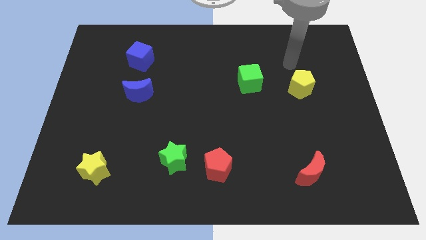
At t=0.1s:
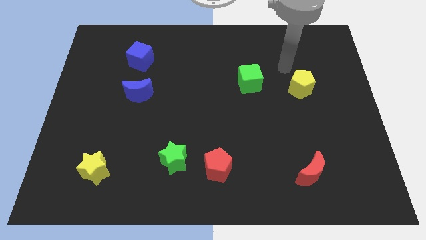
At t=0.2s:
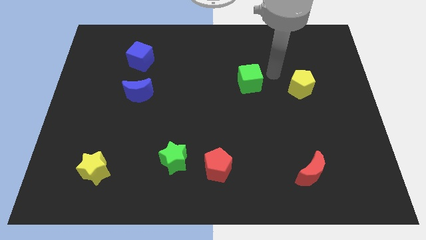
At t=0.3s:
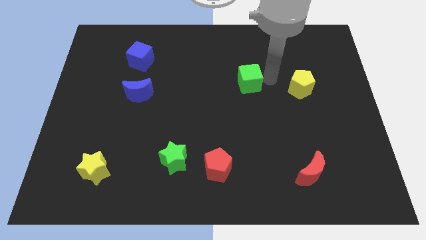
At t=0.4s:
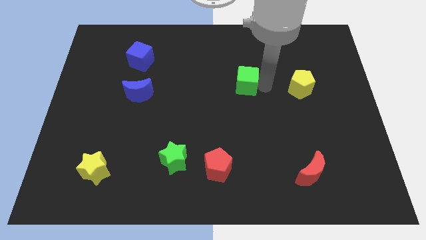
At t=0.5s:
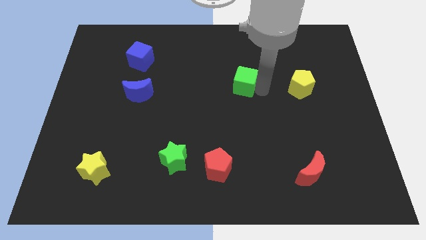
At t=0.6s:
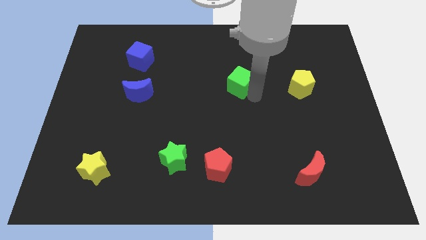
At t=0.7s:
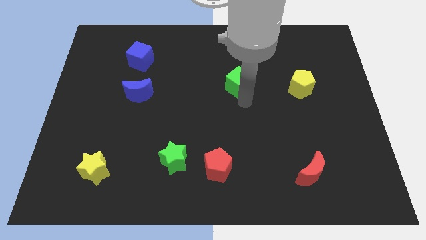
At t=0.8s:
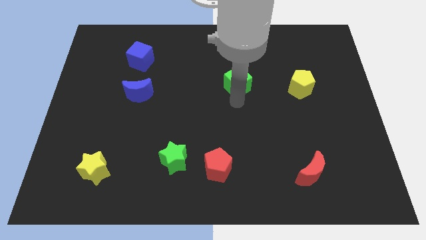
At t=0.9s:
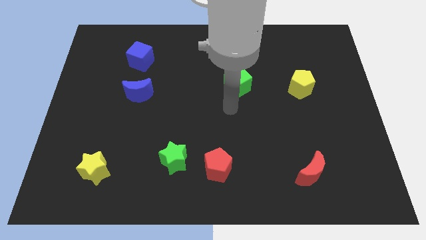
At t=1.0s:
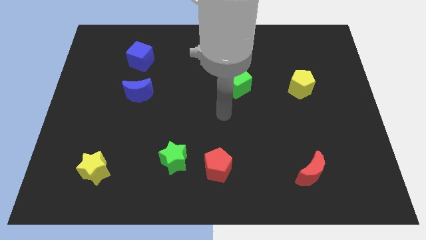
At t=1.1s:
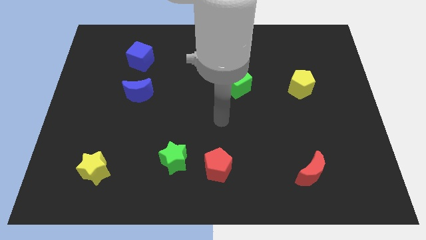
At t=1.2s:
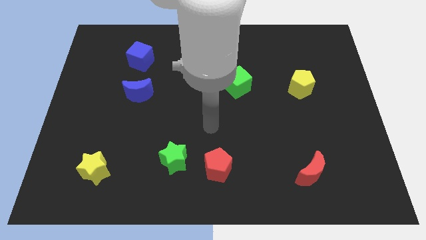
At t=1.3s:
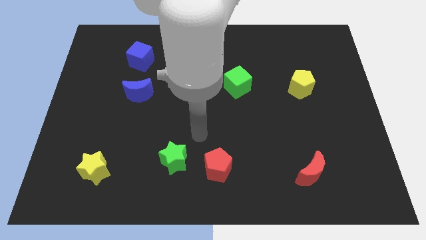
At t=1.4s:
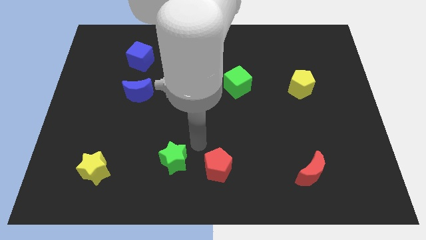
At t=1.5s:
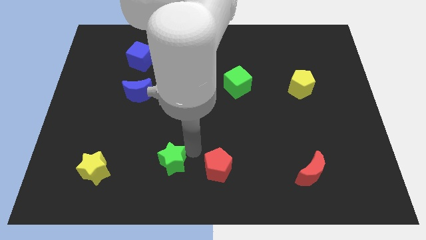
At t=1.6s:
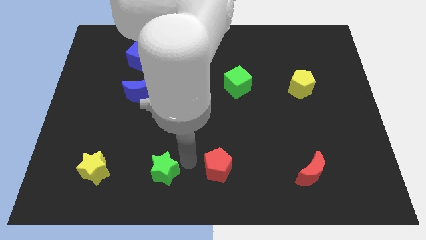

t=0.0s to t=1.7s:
separate the red pentagon from the green star

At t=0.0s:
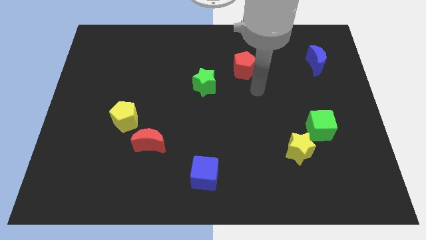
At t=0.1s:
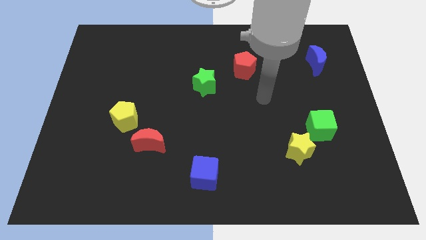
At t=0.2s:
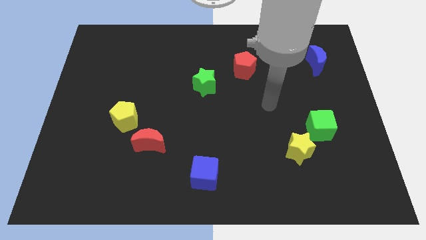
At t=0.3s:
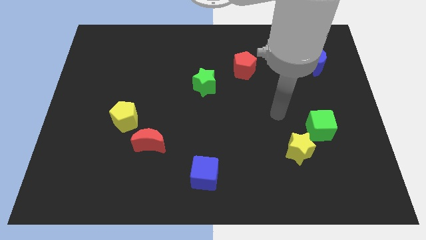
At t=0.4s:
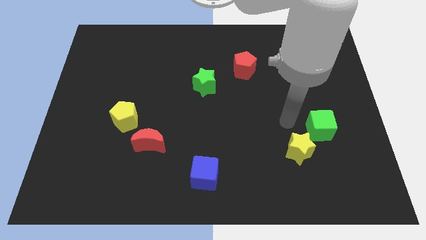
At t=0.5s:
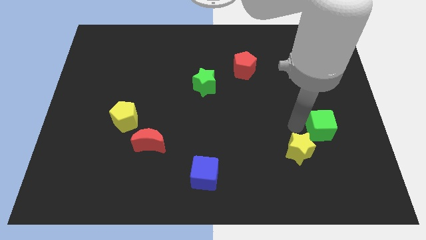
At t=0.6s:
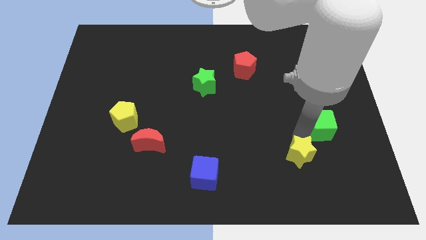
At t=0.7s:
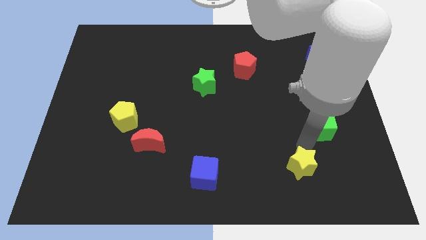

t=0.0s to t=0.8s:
separate the green cube from the yellow star

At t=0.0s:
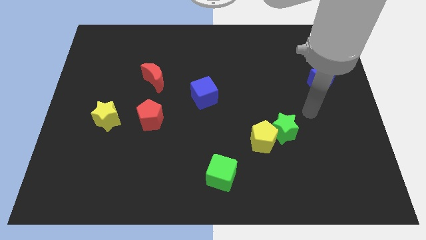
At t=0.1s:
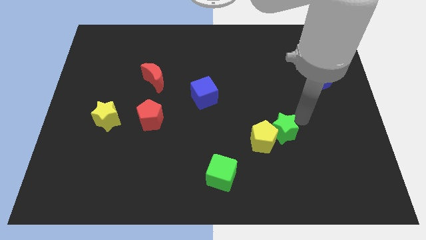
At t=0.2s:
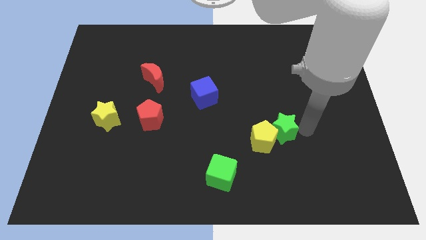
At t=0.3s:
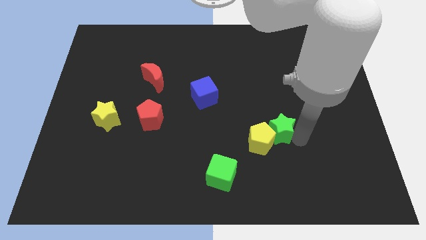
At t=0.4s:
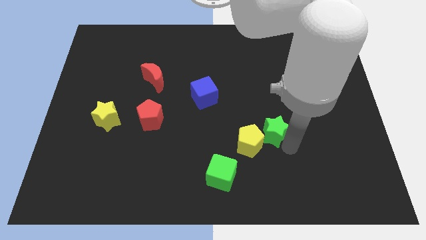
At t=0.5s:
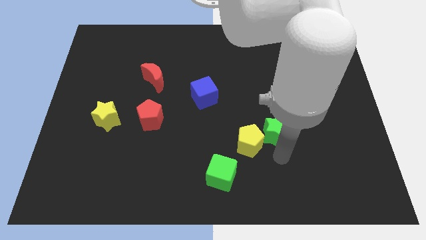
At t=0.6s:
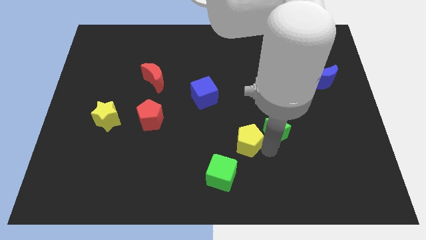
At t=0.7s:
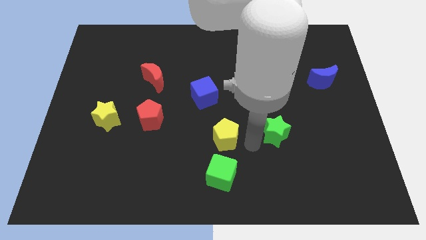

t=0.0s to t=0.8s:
pull the green star apart from the yellow pentagon

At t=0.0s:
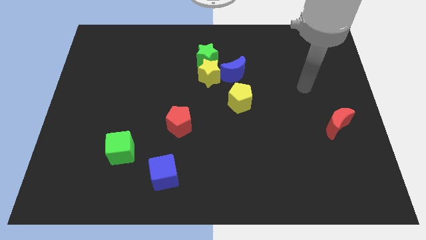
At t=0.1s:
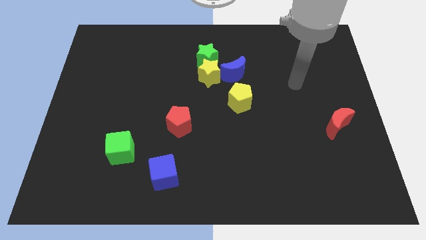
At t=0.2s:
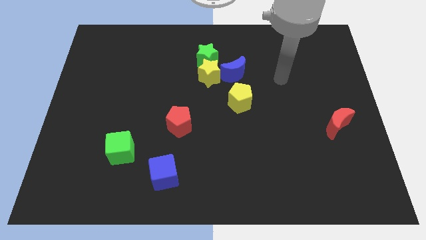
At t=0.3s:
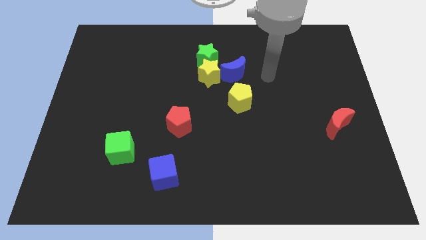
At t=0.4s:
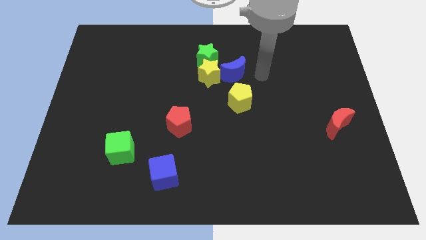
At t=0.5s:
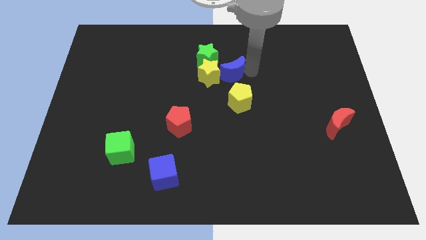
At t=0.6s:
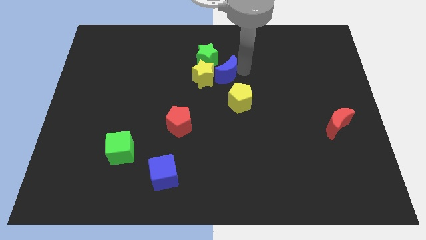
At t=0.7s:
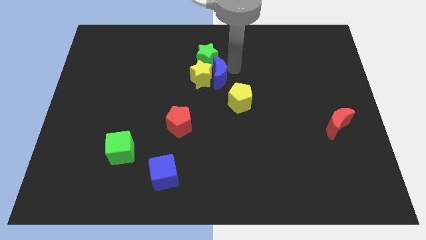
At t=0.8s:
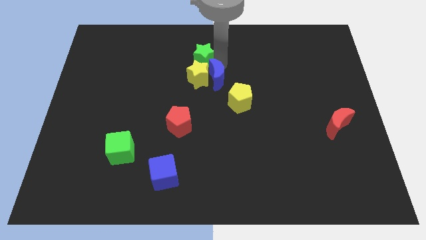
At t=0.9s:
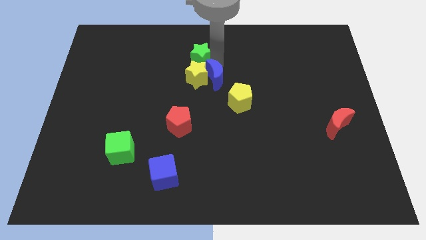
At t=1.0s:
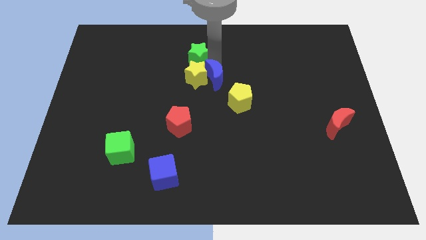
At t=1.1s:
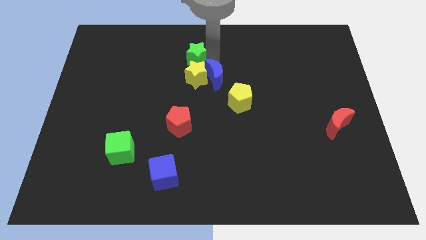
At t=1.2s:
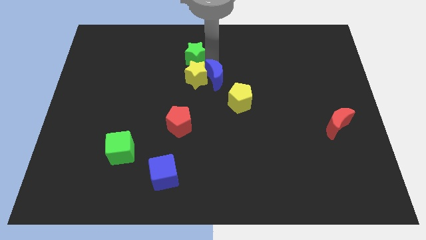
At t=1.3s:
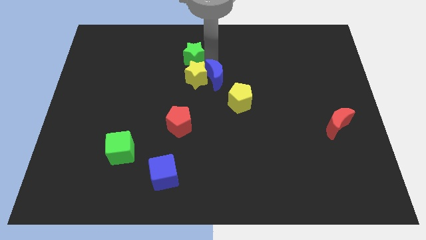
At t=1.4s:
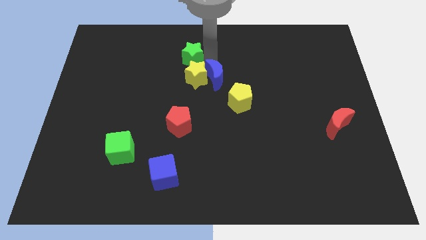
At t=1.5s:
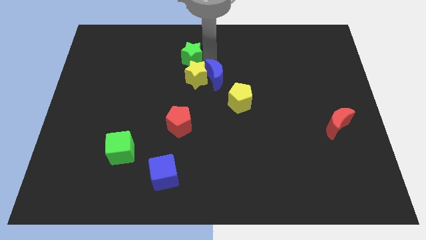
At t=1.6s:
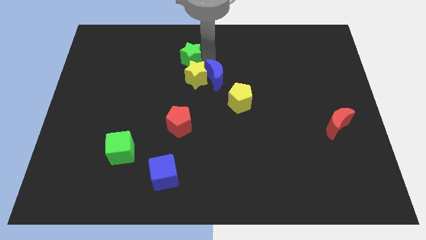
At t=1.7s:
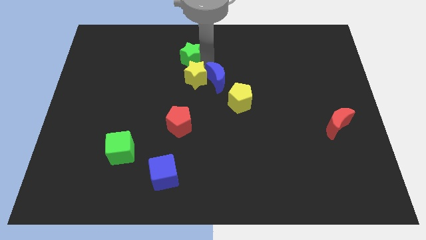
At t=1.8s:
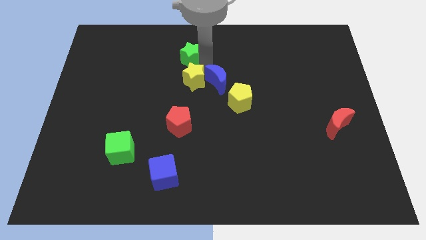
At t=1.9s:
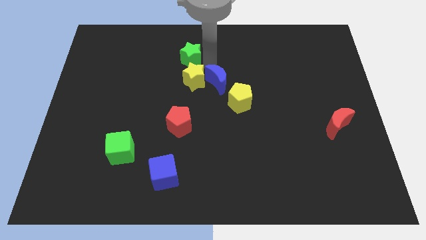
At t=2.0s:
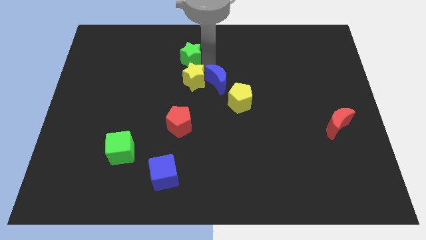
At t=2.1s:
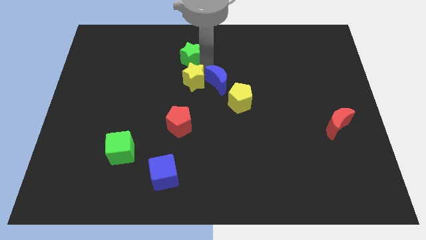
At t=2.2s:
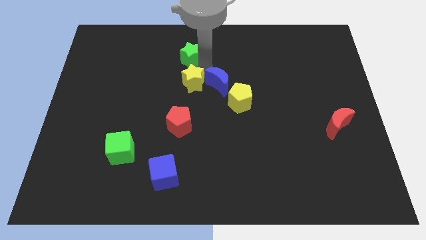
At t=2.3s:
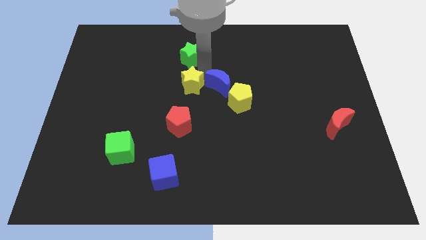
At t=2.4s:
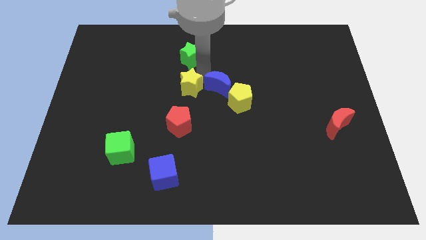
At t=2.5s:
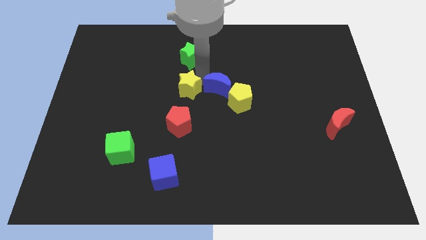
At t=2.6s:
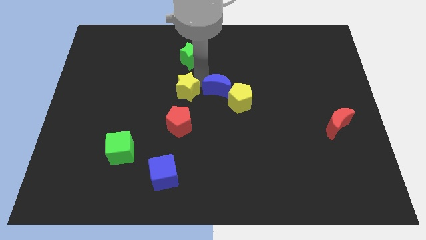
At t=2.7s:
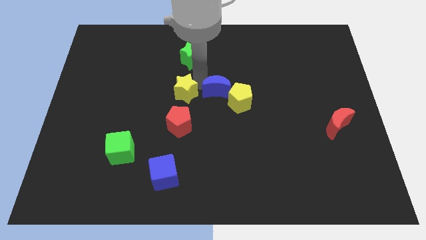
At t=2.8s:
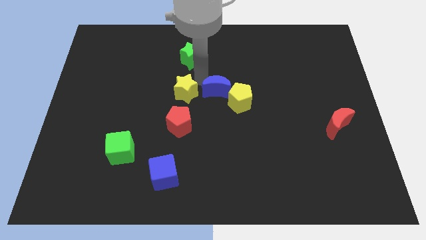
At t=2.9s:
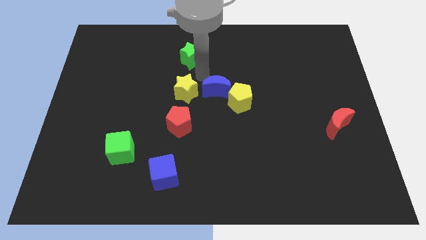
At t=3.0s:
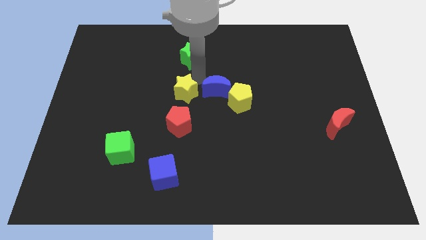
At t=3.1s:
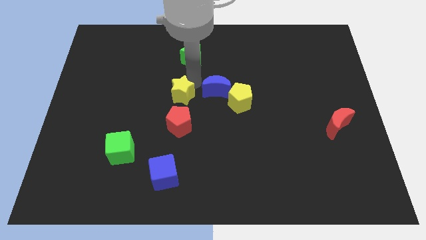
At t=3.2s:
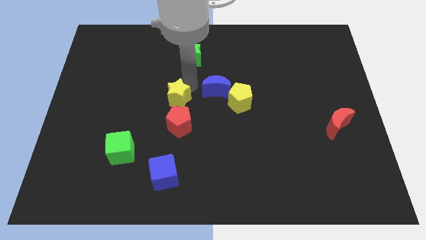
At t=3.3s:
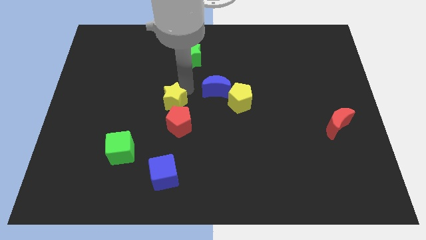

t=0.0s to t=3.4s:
move the yellow star away from the green star and blue moon

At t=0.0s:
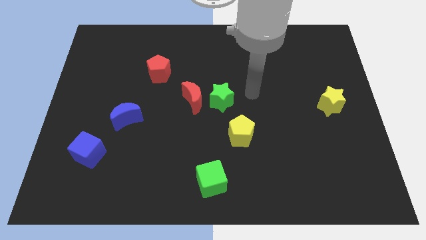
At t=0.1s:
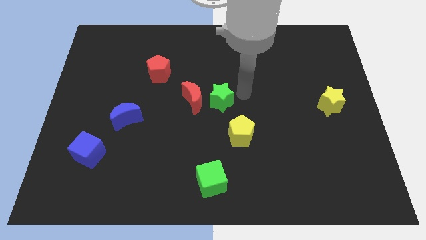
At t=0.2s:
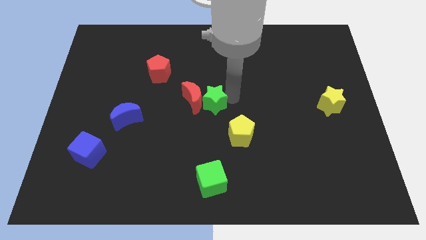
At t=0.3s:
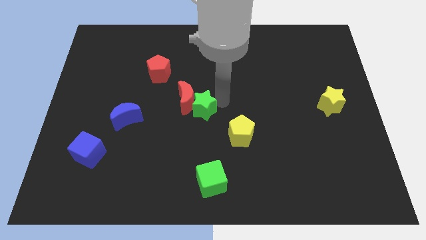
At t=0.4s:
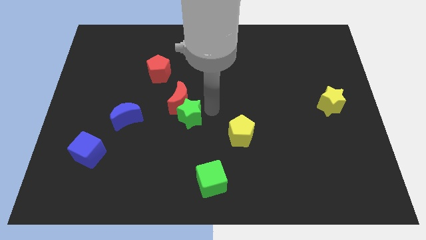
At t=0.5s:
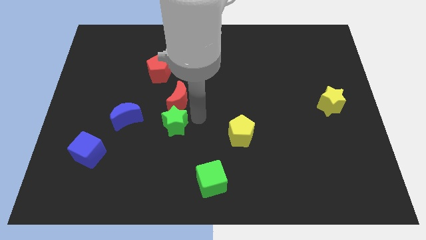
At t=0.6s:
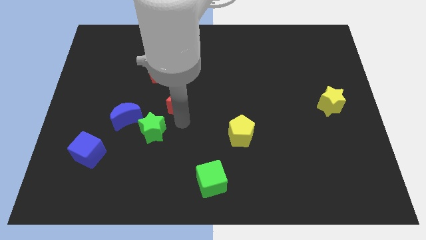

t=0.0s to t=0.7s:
pull the red moon apart from the green star

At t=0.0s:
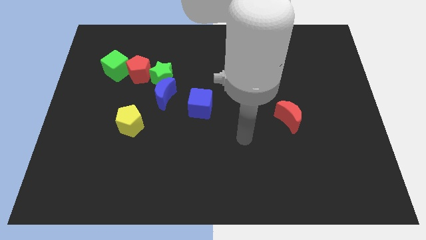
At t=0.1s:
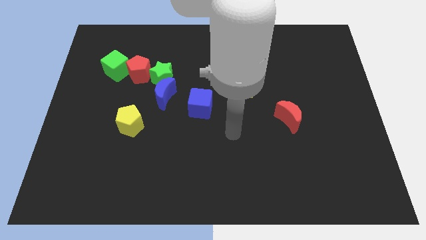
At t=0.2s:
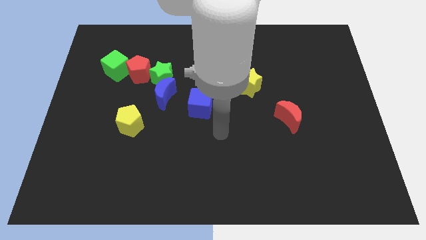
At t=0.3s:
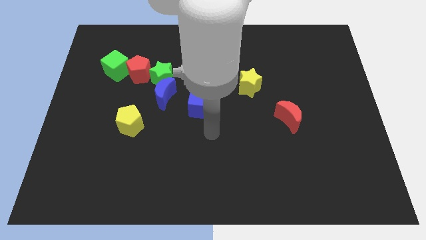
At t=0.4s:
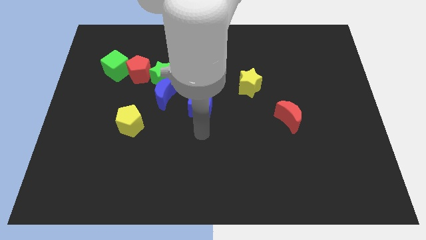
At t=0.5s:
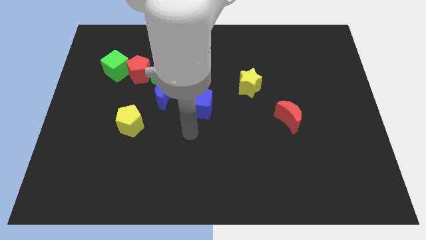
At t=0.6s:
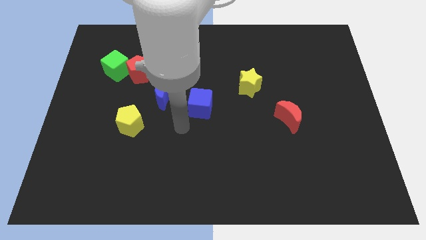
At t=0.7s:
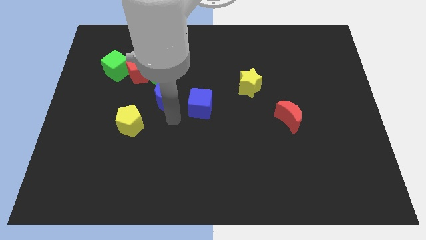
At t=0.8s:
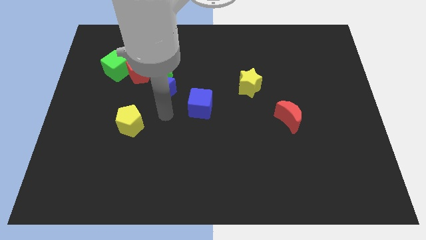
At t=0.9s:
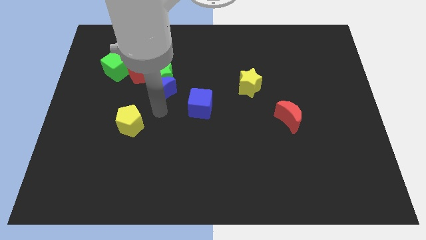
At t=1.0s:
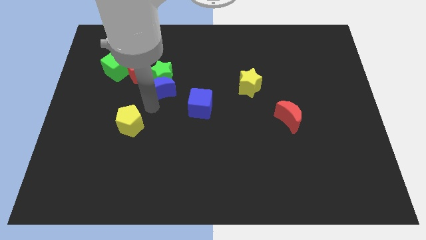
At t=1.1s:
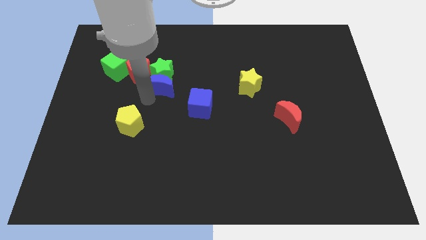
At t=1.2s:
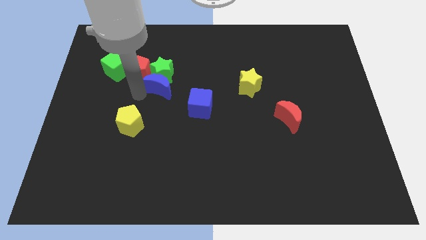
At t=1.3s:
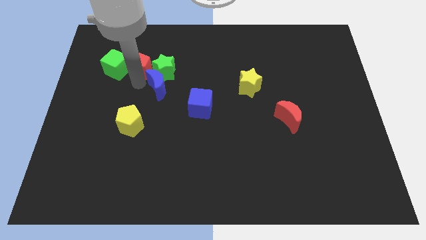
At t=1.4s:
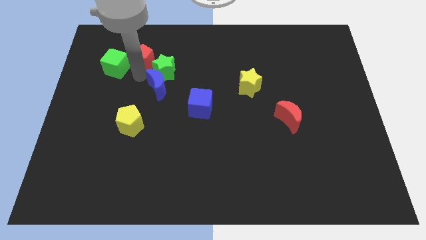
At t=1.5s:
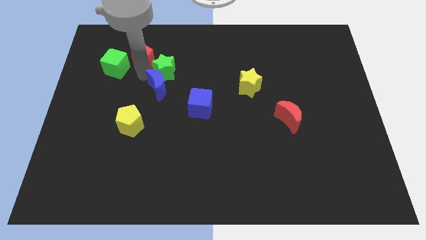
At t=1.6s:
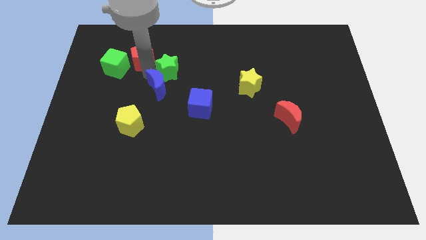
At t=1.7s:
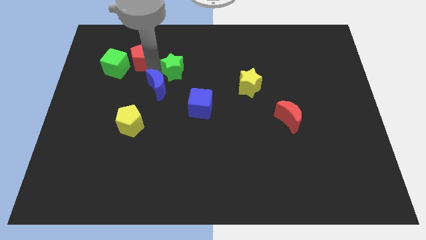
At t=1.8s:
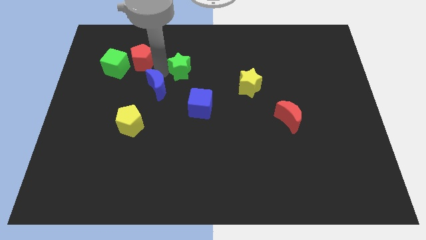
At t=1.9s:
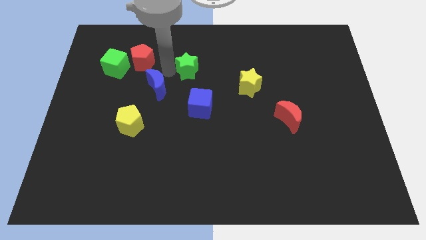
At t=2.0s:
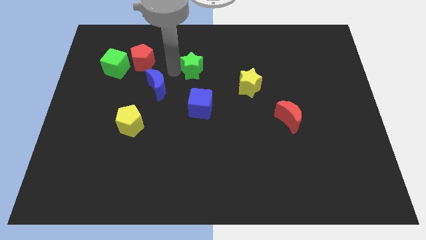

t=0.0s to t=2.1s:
pull the green star apart from the blue moon and red pentagon
